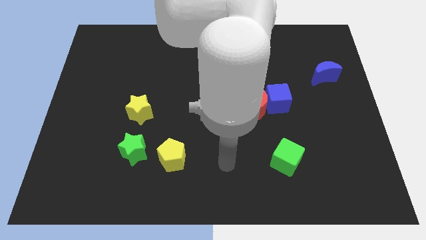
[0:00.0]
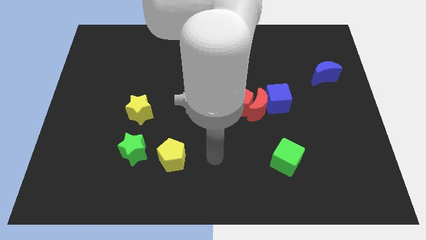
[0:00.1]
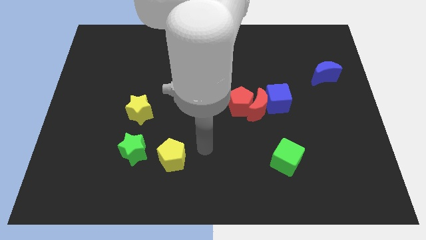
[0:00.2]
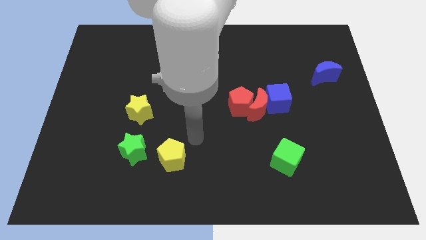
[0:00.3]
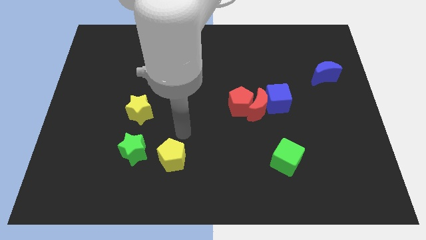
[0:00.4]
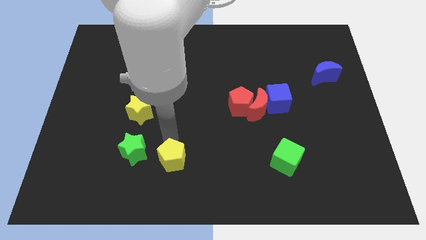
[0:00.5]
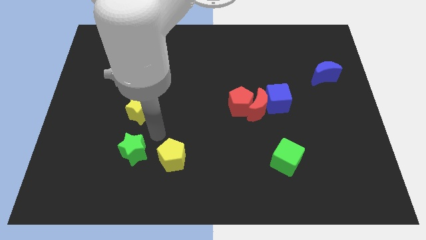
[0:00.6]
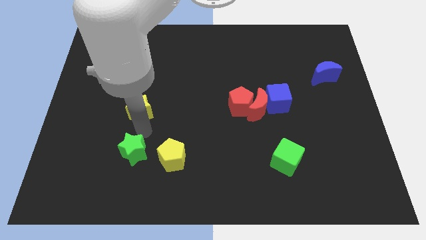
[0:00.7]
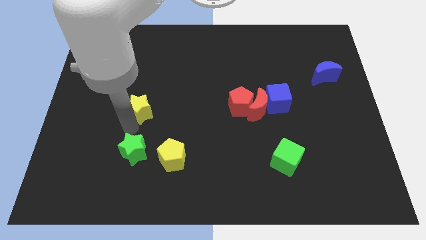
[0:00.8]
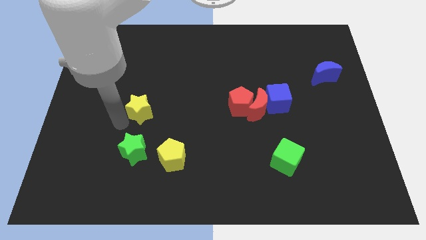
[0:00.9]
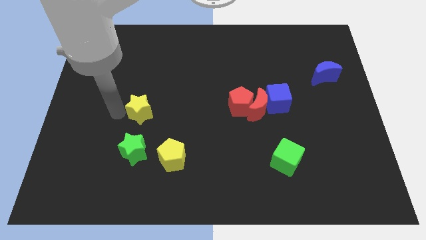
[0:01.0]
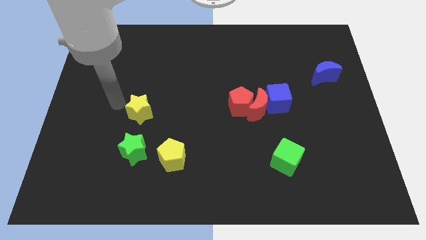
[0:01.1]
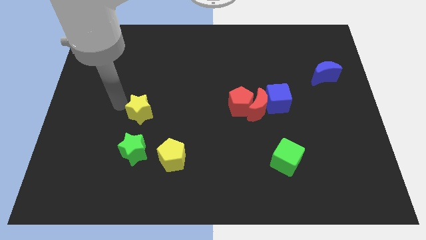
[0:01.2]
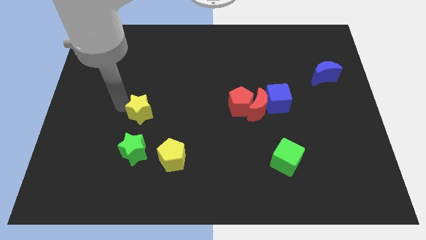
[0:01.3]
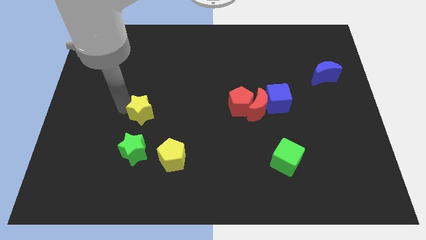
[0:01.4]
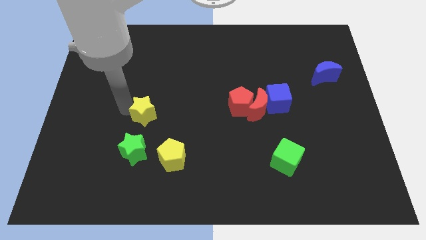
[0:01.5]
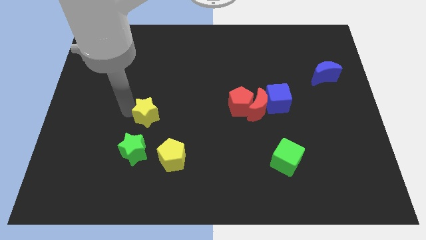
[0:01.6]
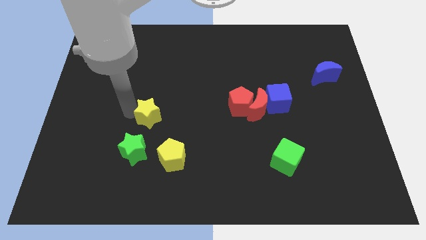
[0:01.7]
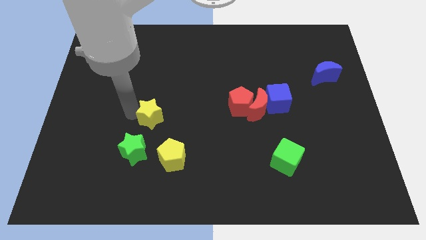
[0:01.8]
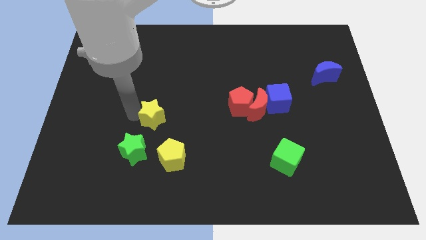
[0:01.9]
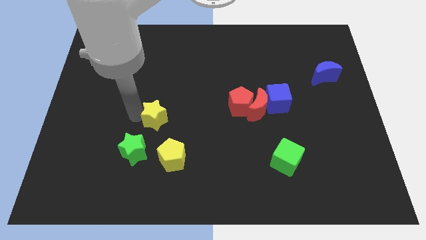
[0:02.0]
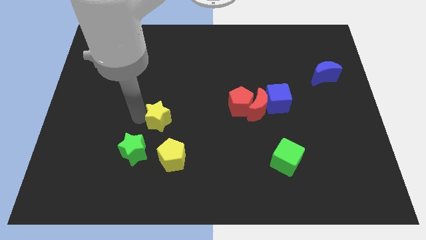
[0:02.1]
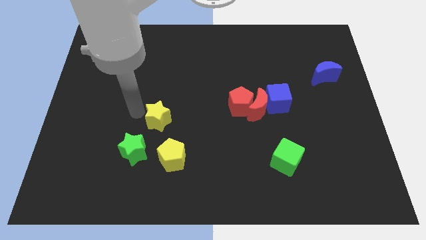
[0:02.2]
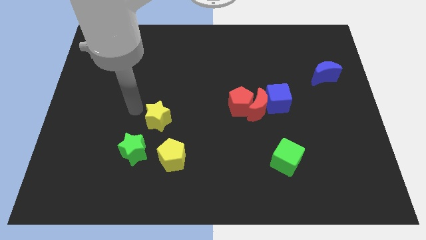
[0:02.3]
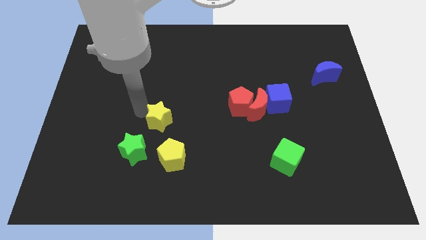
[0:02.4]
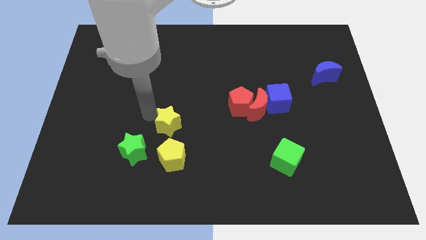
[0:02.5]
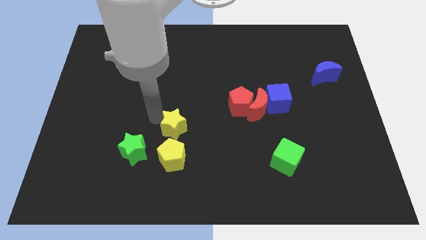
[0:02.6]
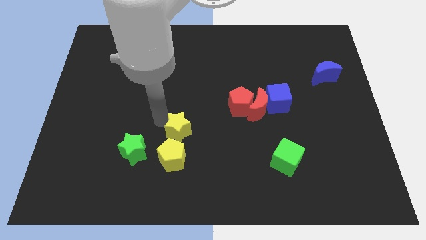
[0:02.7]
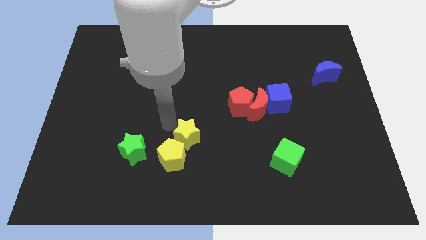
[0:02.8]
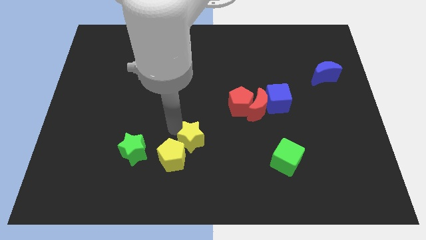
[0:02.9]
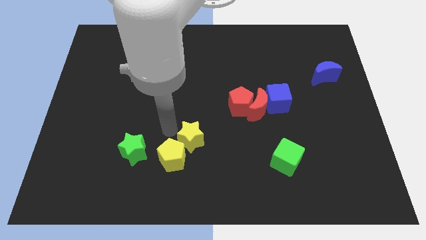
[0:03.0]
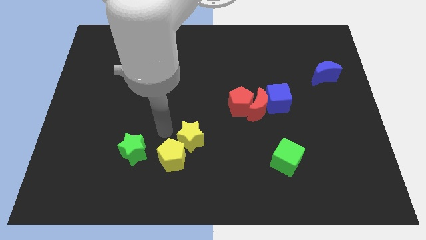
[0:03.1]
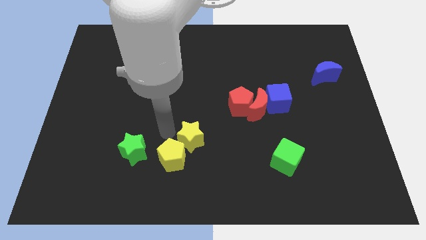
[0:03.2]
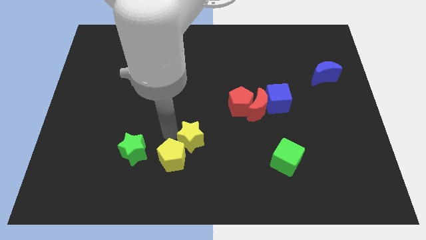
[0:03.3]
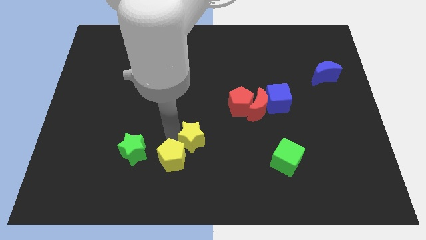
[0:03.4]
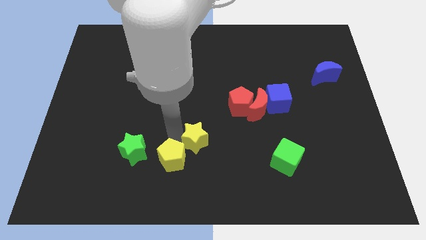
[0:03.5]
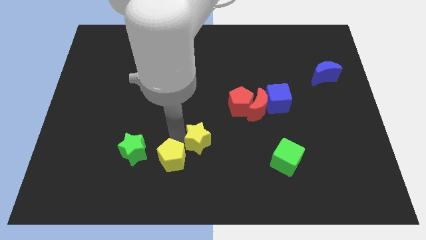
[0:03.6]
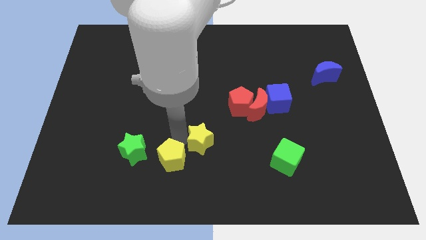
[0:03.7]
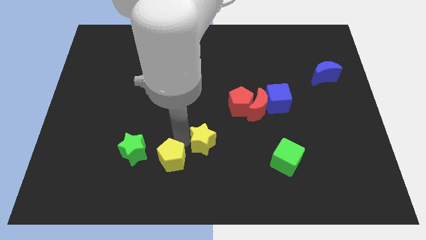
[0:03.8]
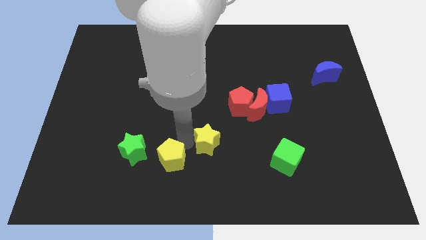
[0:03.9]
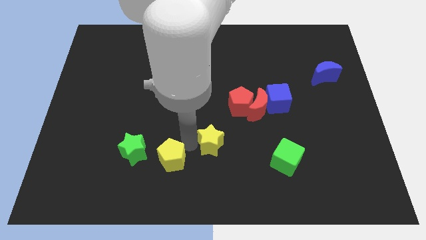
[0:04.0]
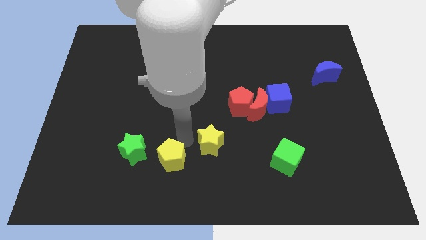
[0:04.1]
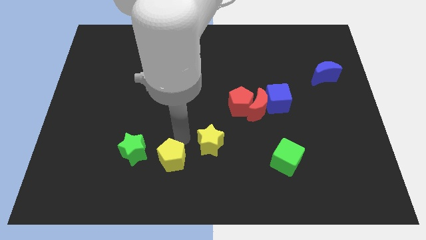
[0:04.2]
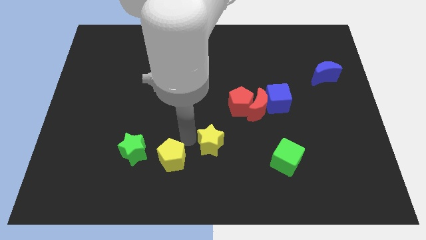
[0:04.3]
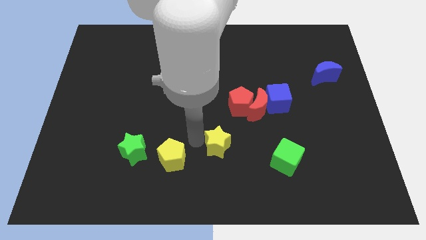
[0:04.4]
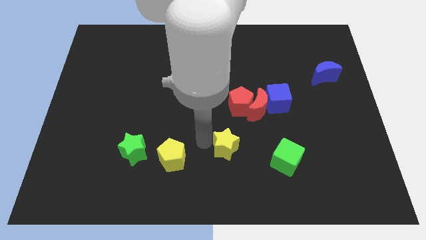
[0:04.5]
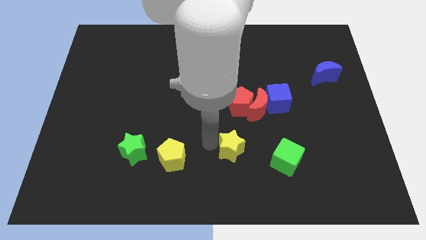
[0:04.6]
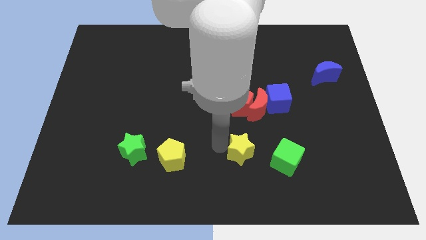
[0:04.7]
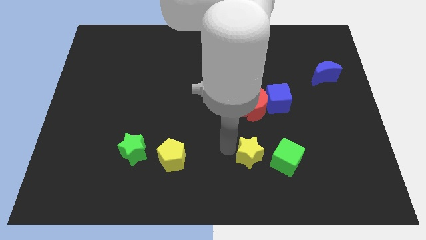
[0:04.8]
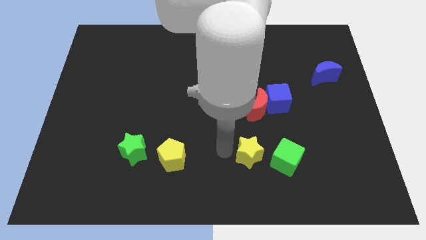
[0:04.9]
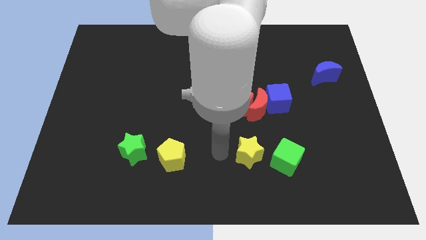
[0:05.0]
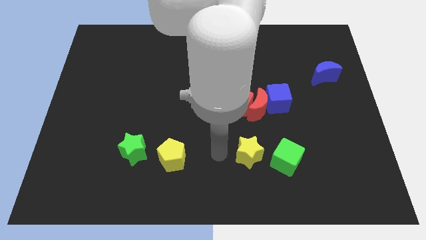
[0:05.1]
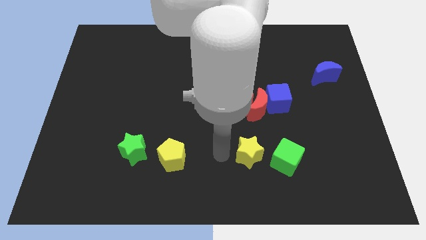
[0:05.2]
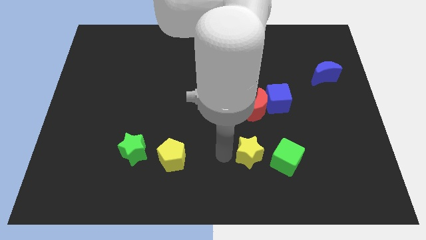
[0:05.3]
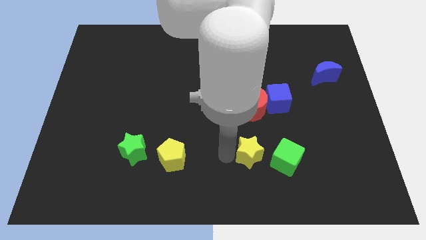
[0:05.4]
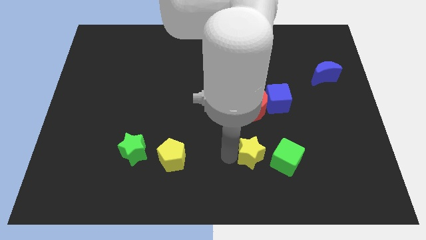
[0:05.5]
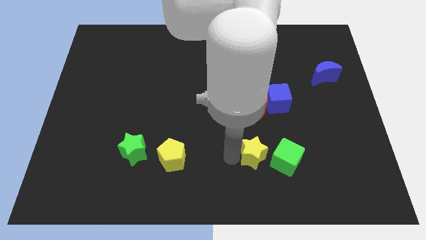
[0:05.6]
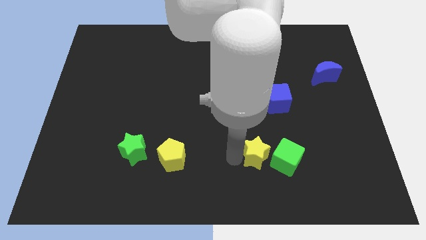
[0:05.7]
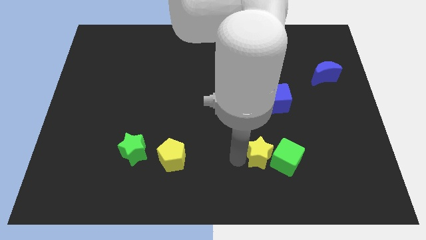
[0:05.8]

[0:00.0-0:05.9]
put the yellow star towards the green cube

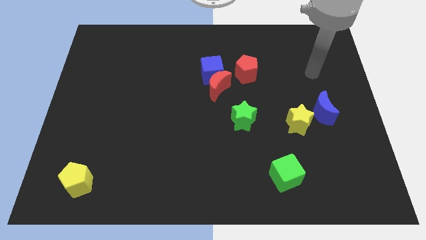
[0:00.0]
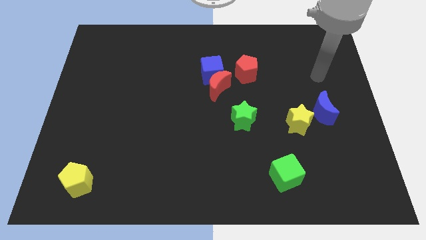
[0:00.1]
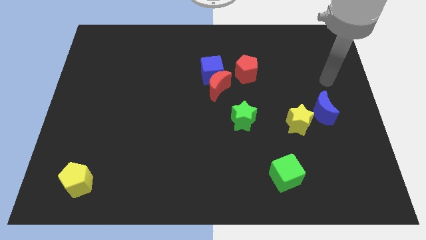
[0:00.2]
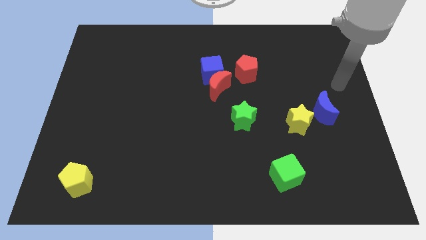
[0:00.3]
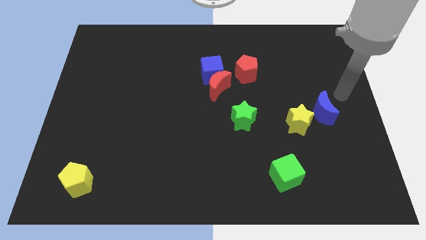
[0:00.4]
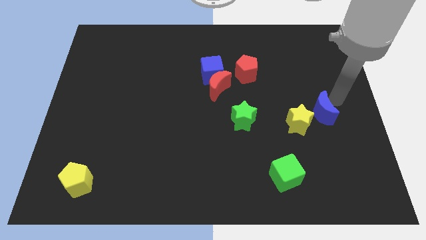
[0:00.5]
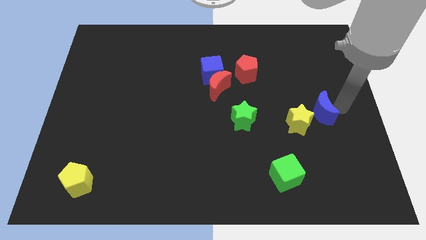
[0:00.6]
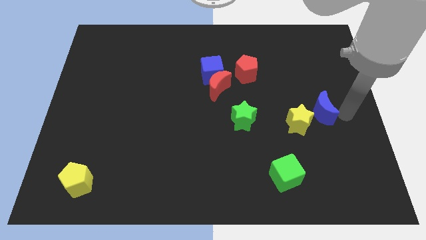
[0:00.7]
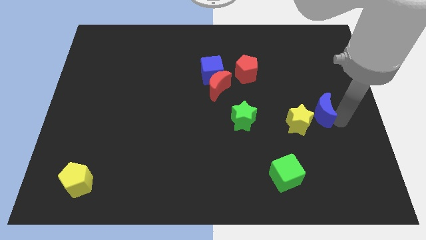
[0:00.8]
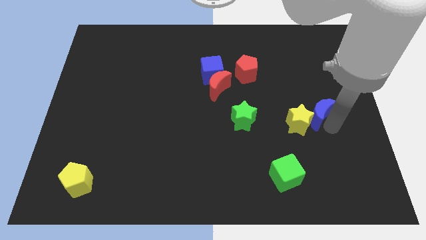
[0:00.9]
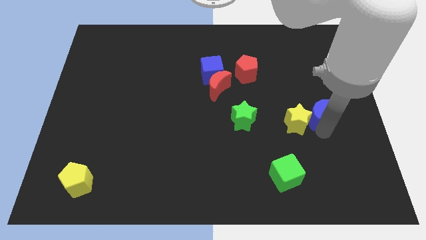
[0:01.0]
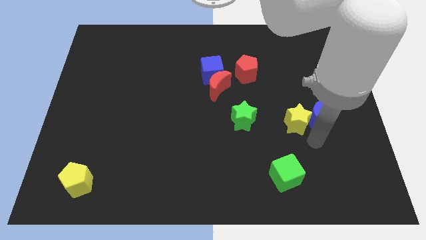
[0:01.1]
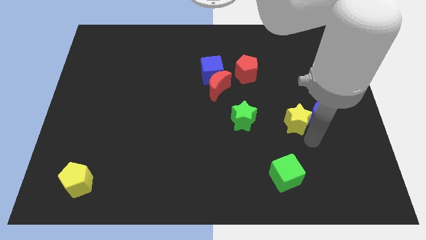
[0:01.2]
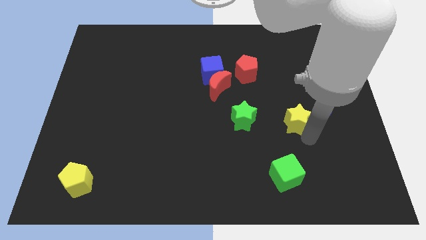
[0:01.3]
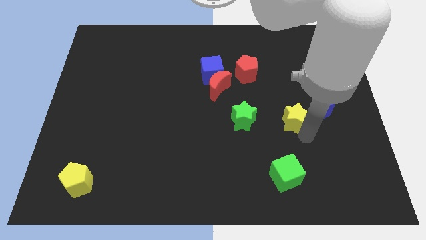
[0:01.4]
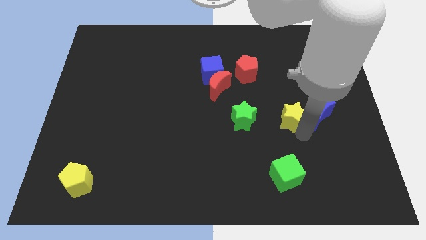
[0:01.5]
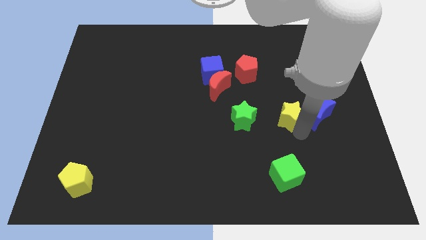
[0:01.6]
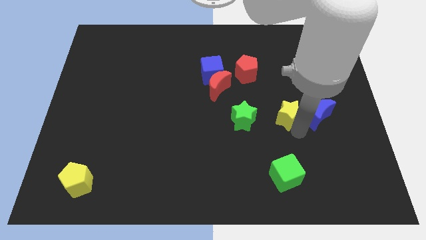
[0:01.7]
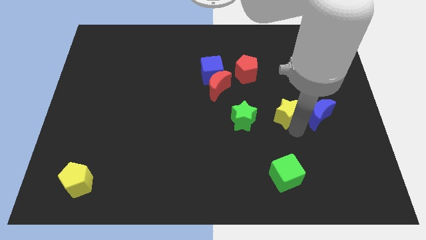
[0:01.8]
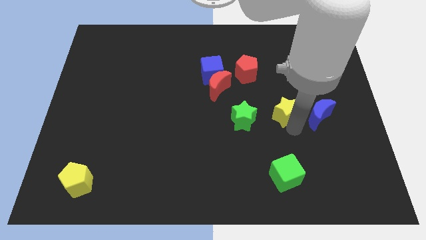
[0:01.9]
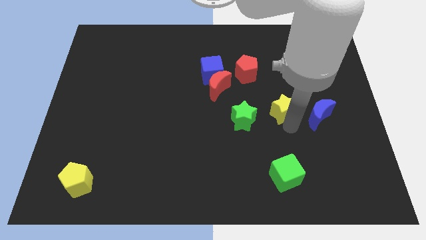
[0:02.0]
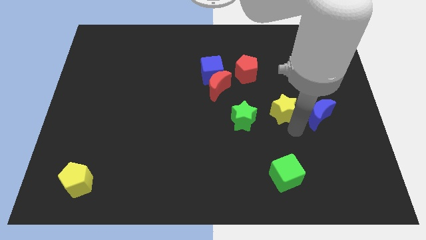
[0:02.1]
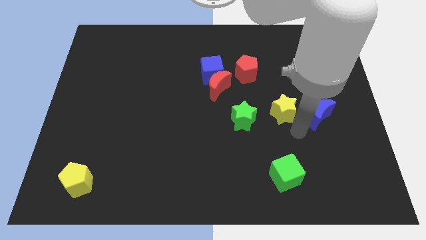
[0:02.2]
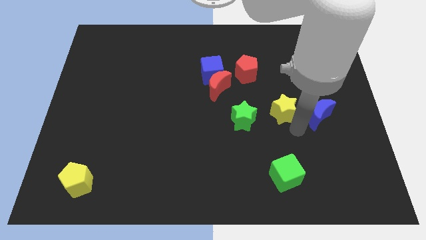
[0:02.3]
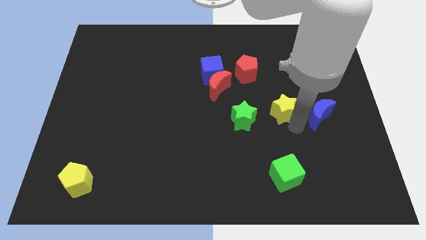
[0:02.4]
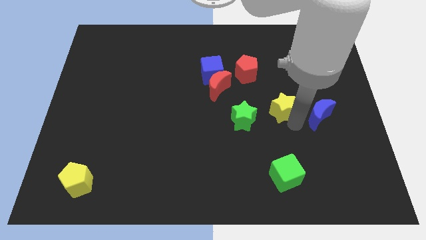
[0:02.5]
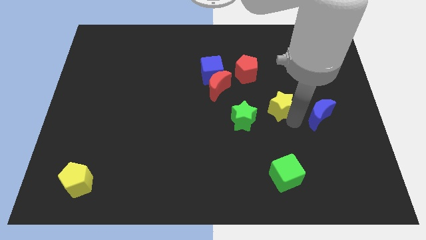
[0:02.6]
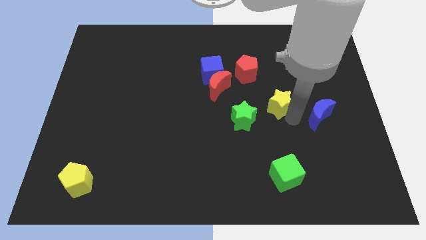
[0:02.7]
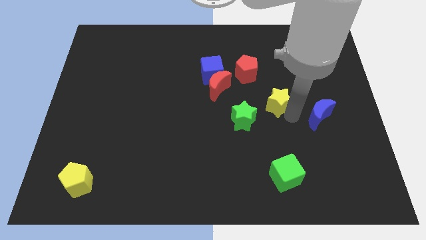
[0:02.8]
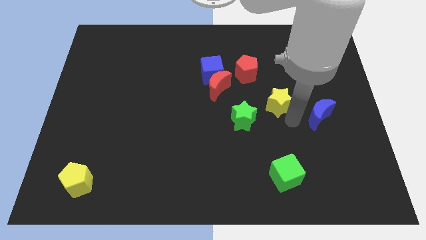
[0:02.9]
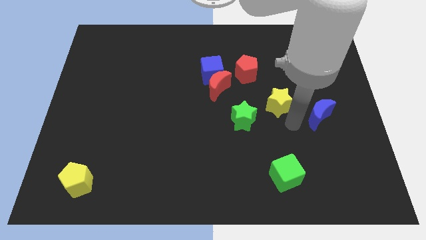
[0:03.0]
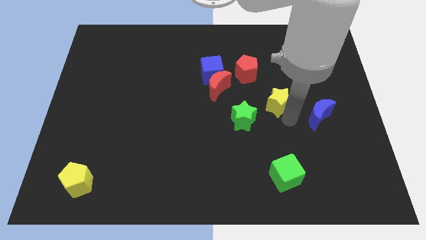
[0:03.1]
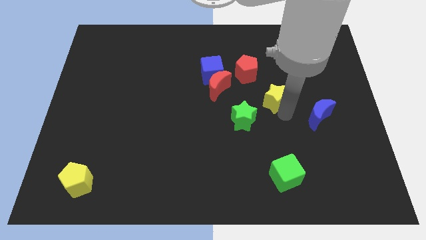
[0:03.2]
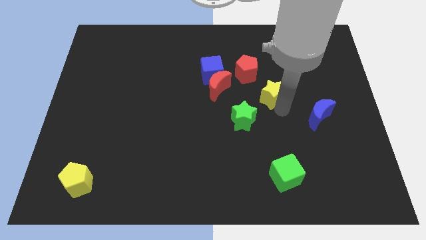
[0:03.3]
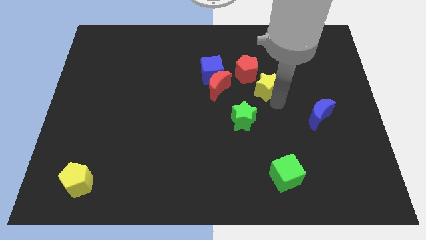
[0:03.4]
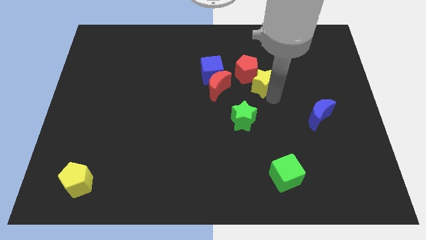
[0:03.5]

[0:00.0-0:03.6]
push the yellow star close to the red pentagon
